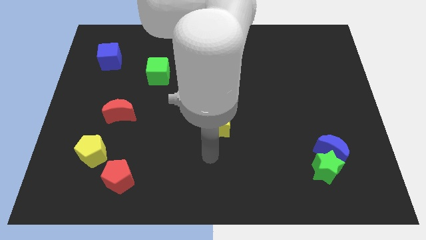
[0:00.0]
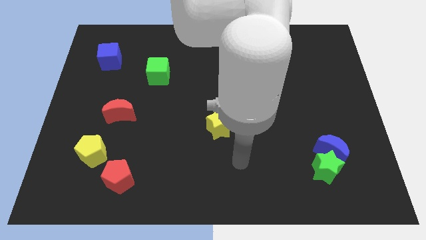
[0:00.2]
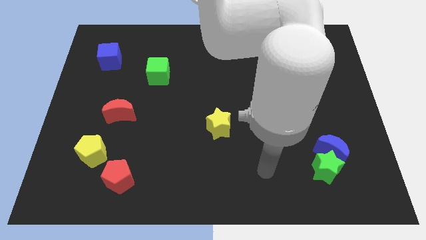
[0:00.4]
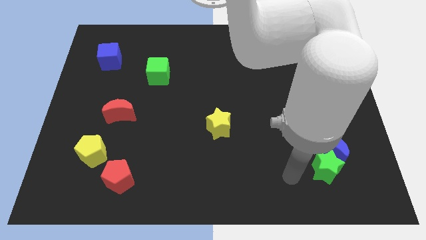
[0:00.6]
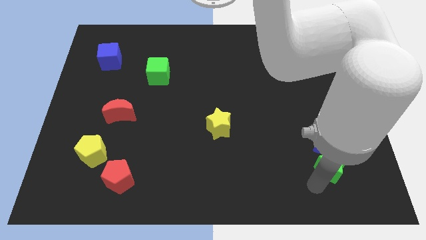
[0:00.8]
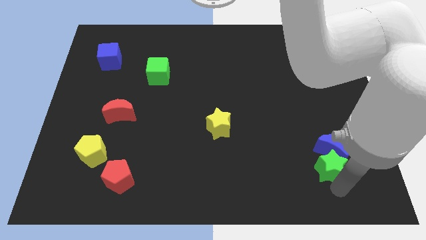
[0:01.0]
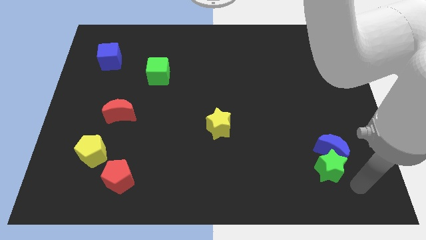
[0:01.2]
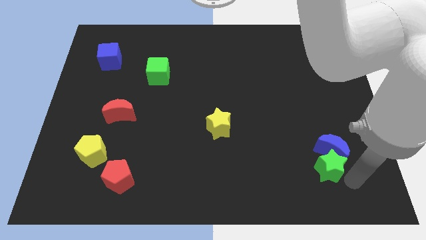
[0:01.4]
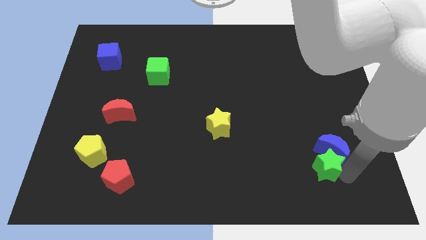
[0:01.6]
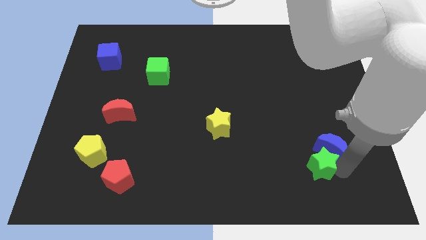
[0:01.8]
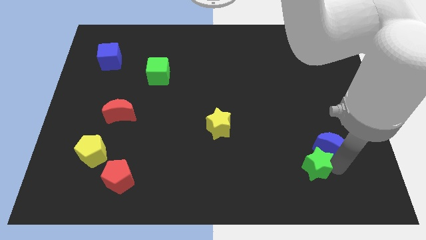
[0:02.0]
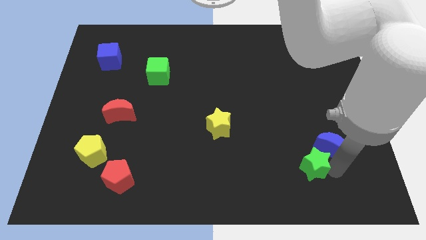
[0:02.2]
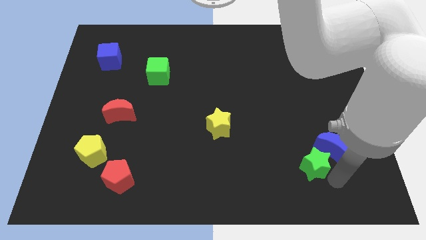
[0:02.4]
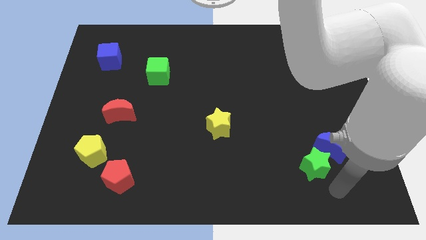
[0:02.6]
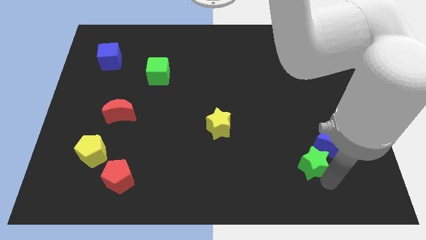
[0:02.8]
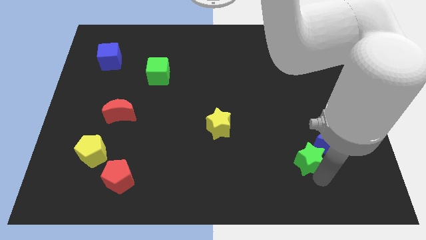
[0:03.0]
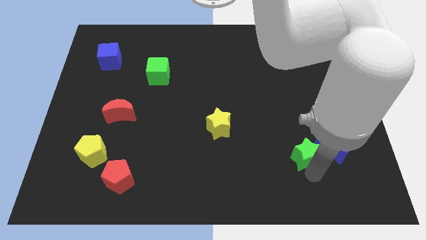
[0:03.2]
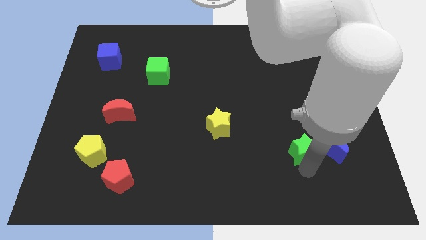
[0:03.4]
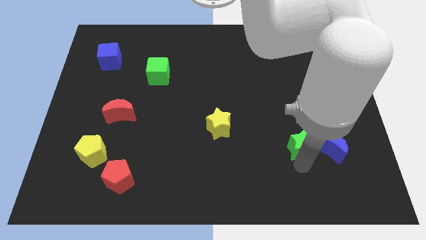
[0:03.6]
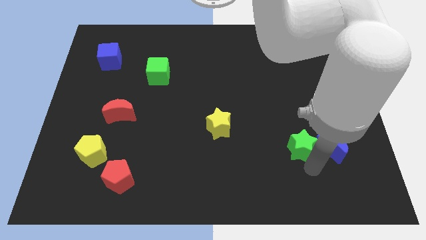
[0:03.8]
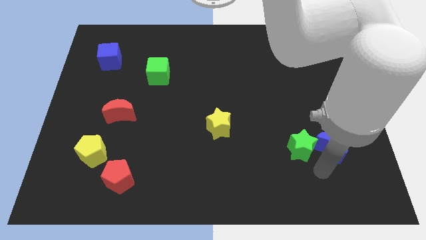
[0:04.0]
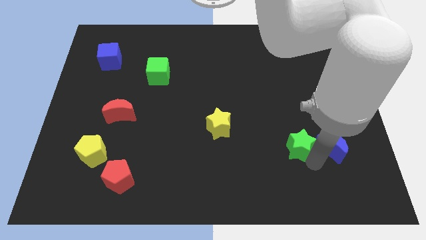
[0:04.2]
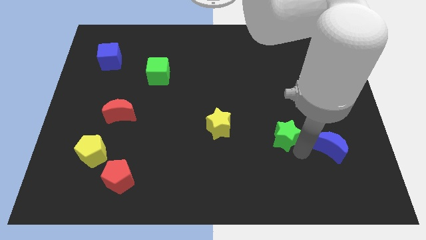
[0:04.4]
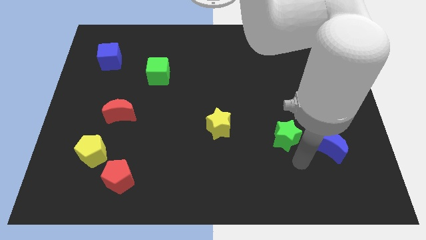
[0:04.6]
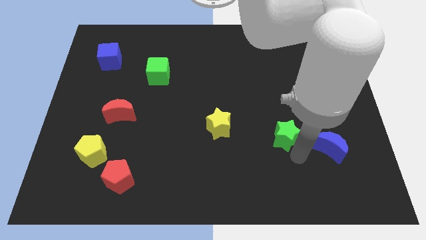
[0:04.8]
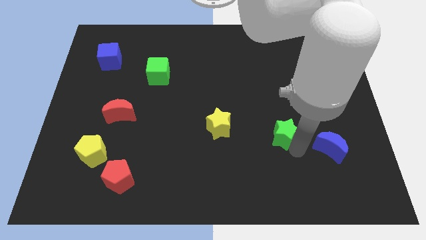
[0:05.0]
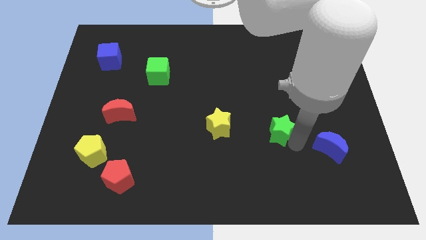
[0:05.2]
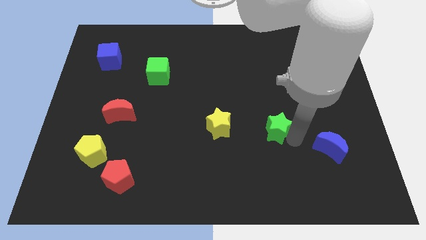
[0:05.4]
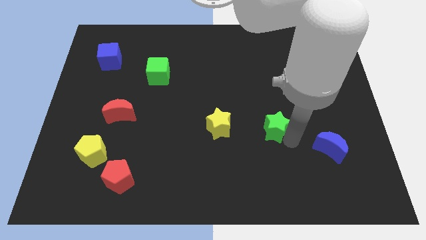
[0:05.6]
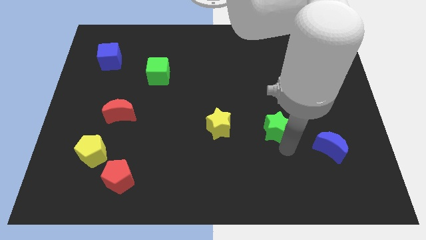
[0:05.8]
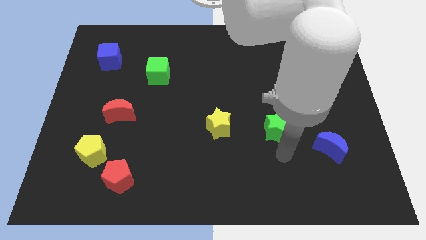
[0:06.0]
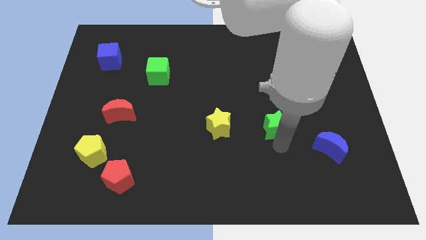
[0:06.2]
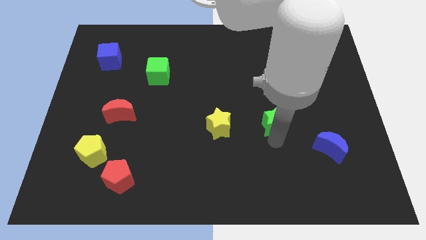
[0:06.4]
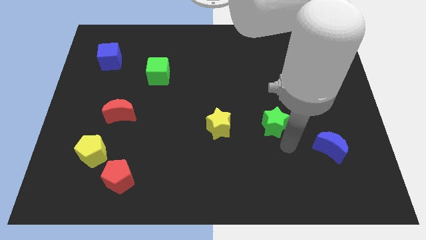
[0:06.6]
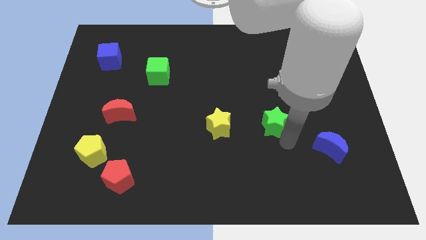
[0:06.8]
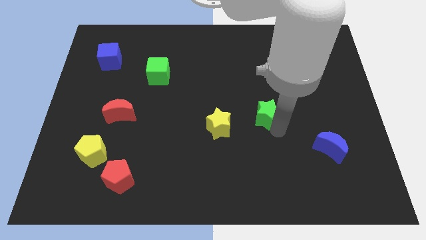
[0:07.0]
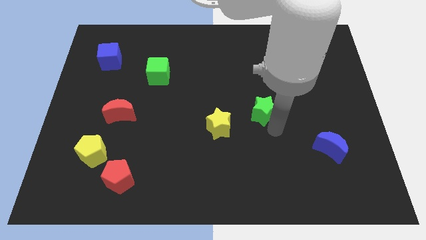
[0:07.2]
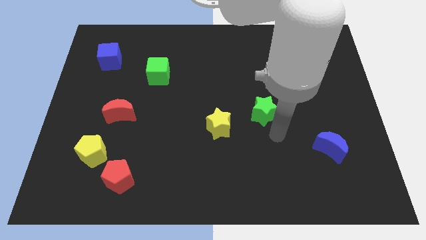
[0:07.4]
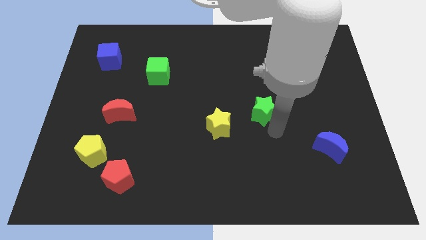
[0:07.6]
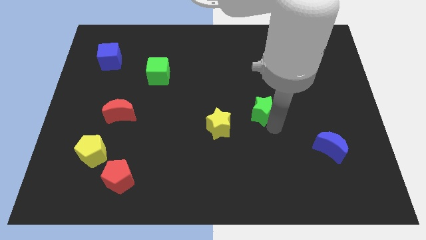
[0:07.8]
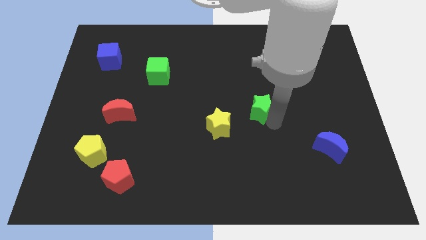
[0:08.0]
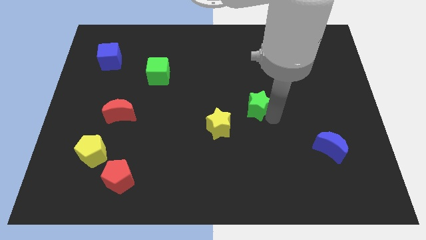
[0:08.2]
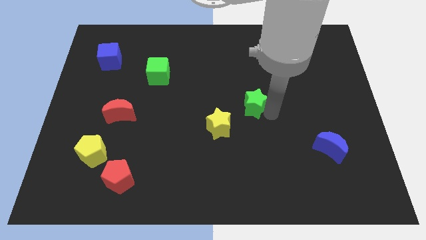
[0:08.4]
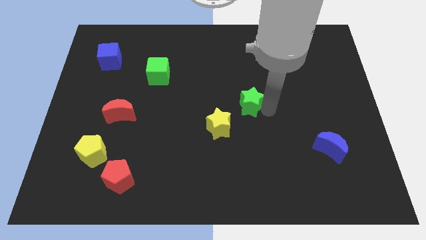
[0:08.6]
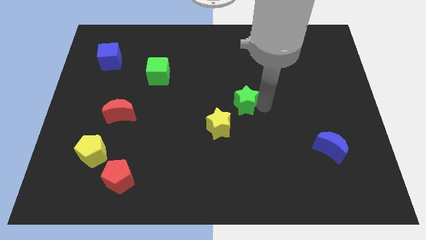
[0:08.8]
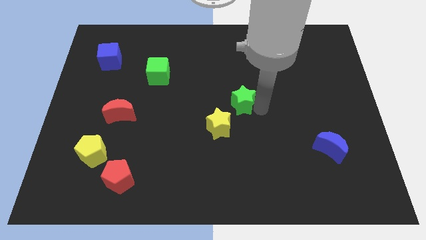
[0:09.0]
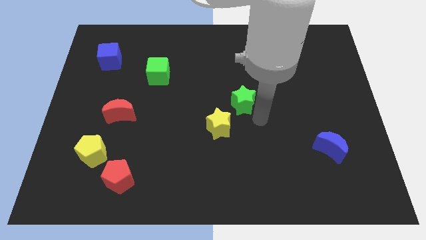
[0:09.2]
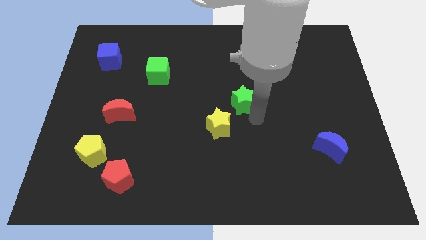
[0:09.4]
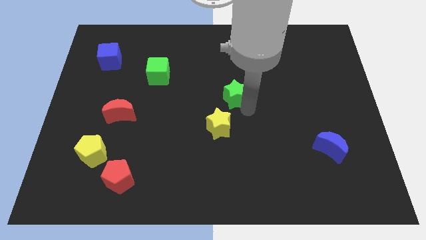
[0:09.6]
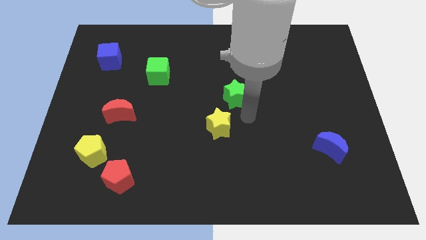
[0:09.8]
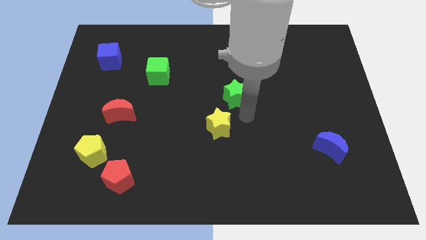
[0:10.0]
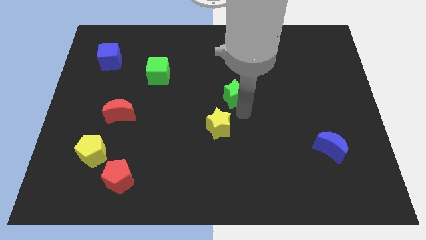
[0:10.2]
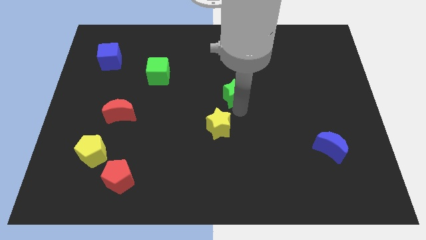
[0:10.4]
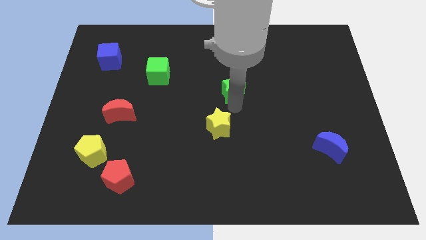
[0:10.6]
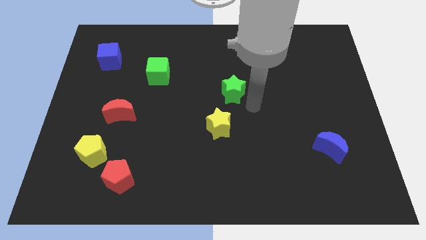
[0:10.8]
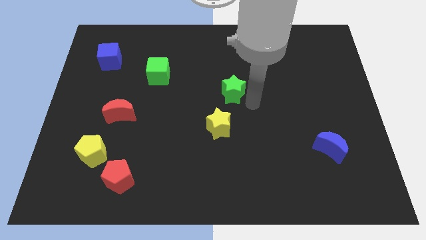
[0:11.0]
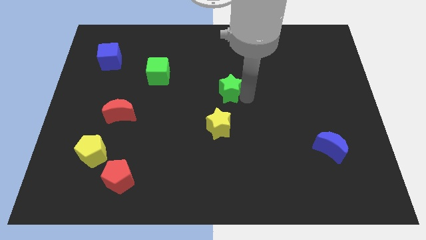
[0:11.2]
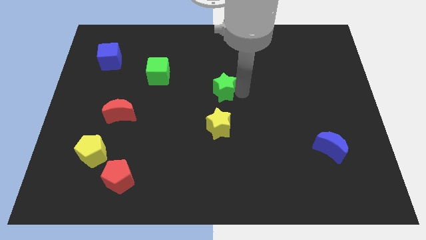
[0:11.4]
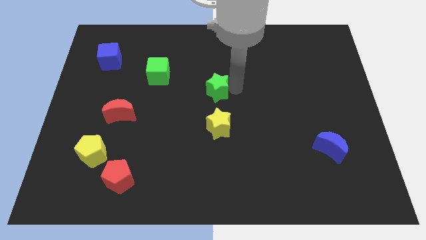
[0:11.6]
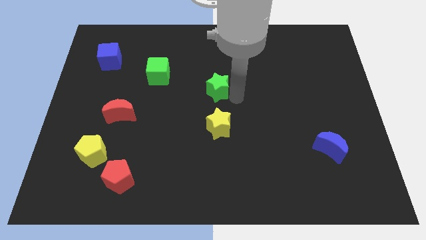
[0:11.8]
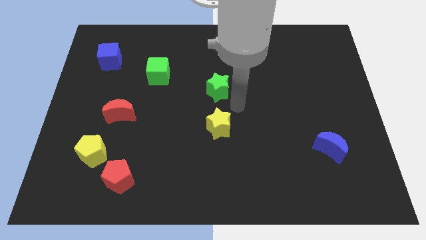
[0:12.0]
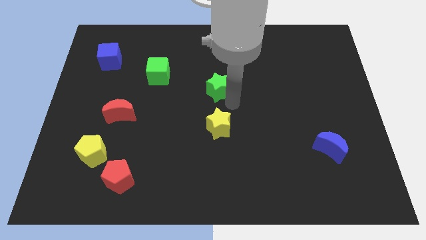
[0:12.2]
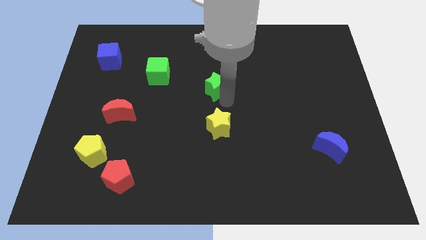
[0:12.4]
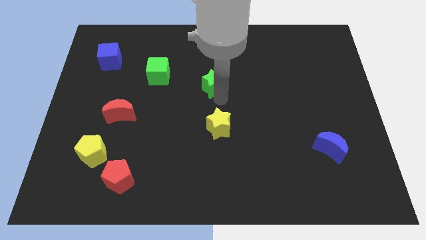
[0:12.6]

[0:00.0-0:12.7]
put the green star to the right side of the green cube

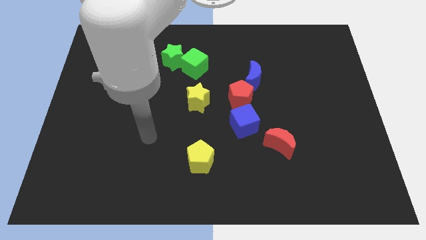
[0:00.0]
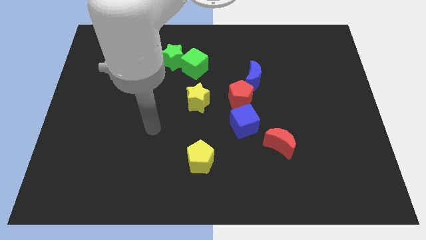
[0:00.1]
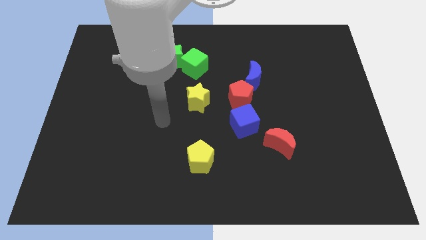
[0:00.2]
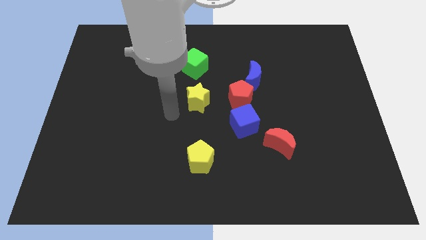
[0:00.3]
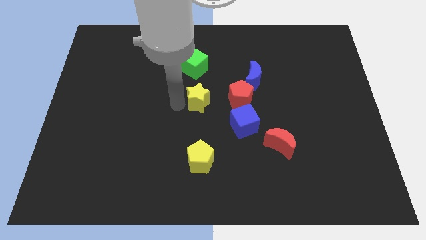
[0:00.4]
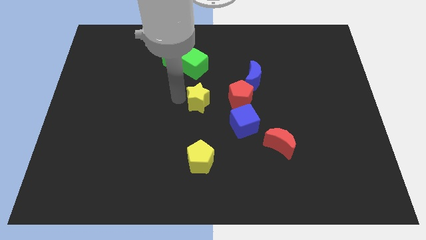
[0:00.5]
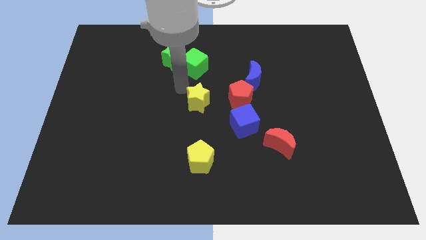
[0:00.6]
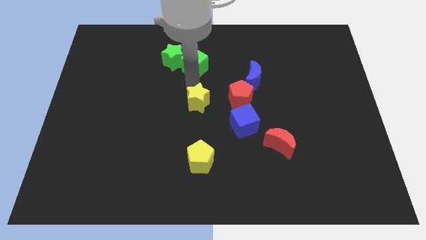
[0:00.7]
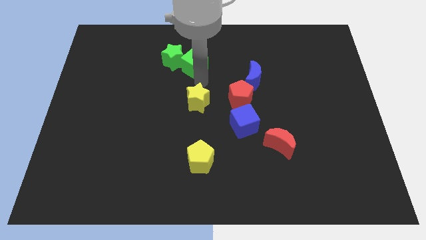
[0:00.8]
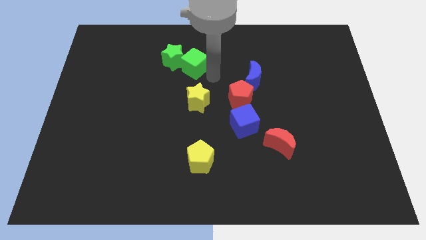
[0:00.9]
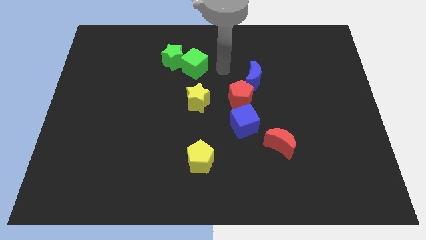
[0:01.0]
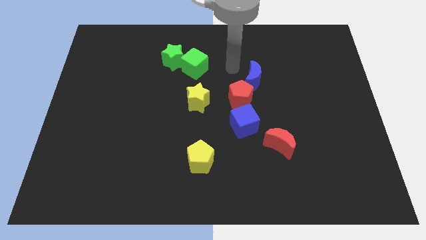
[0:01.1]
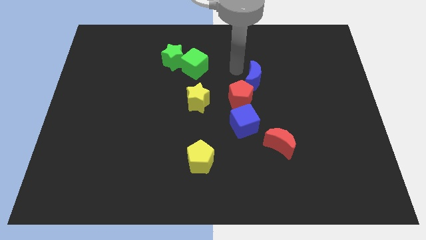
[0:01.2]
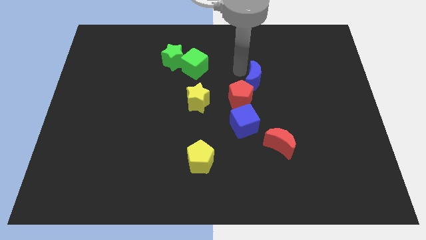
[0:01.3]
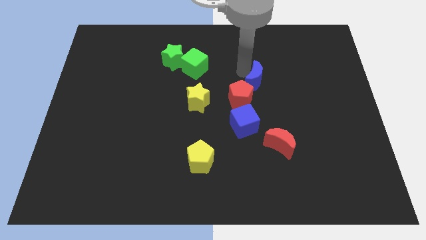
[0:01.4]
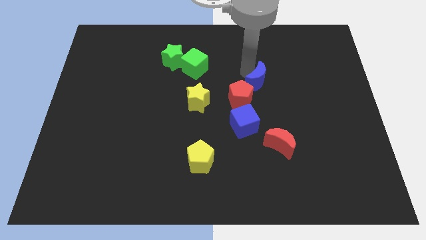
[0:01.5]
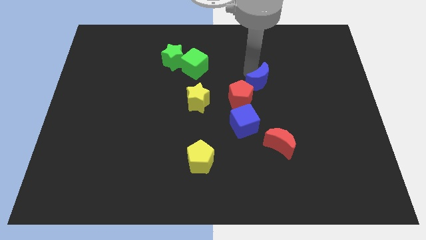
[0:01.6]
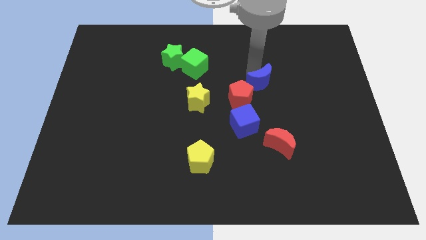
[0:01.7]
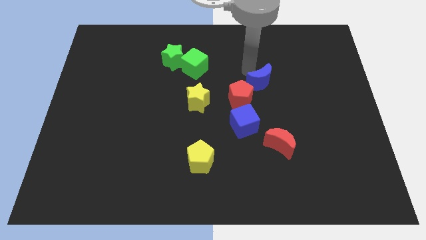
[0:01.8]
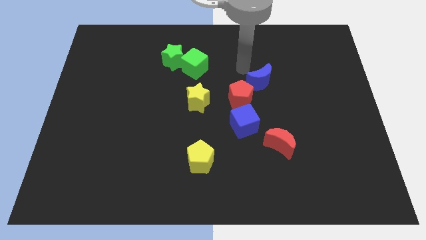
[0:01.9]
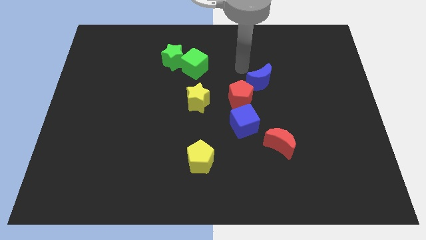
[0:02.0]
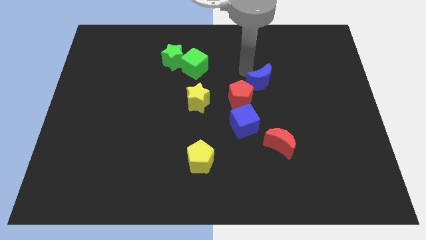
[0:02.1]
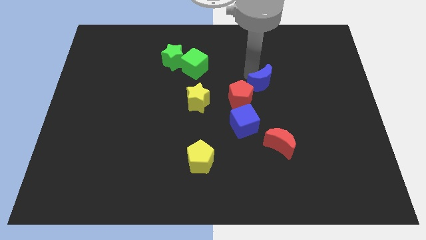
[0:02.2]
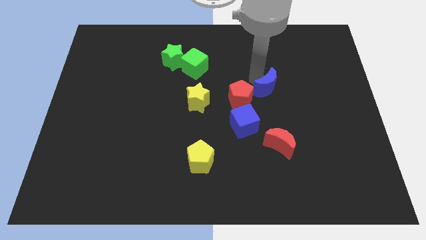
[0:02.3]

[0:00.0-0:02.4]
slide the blue moon just right of the red pentagon
